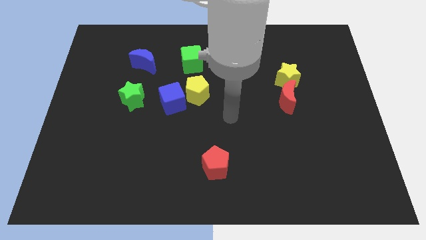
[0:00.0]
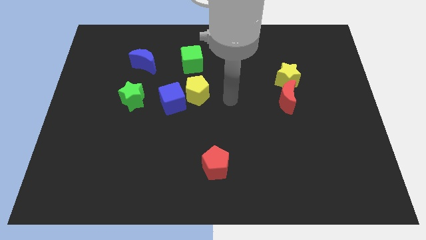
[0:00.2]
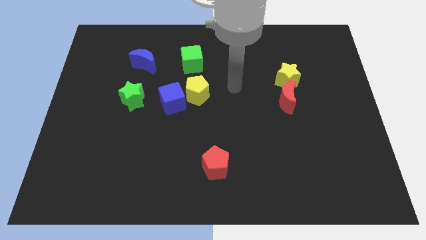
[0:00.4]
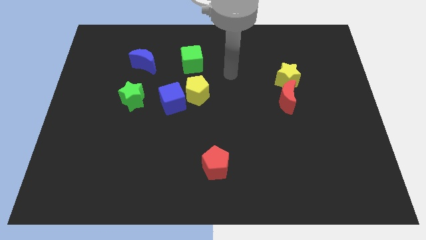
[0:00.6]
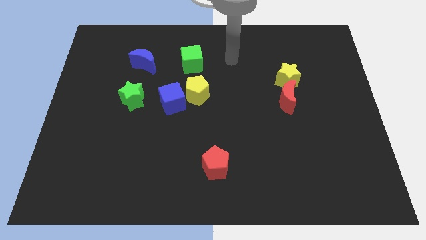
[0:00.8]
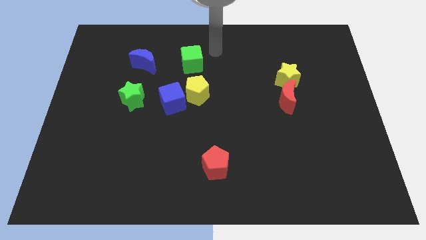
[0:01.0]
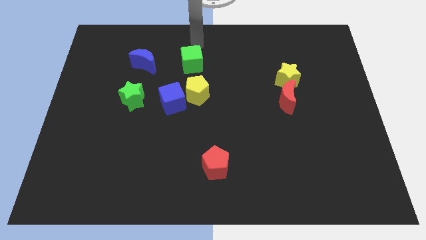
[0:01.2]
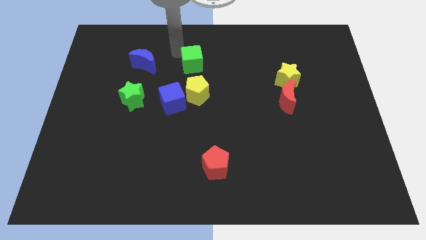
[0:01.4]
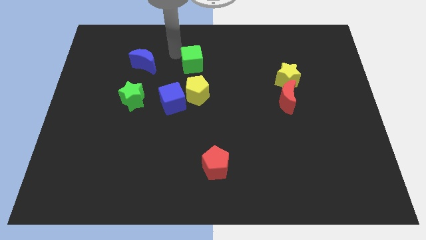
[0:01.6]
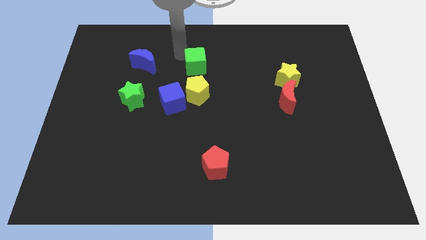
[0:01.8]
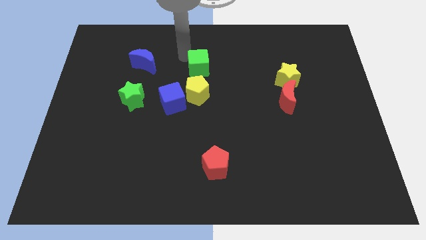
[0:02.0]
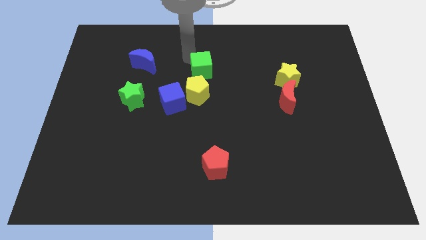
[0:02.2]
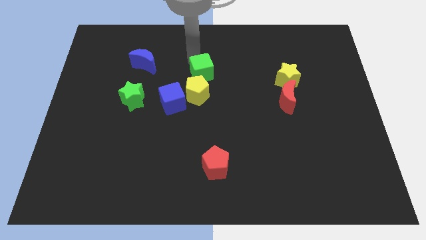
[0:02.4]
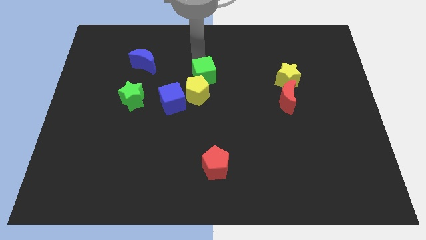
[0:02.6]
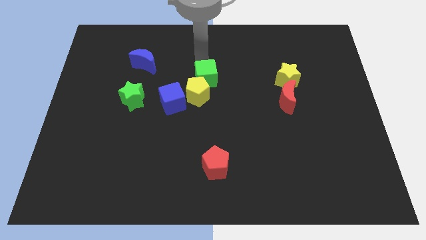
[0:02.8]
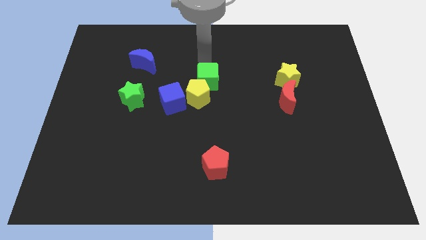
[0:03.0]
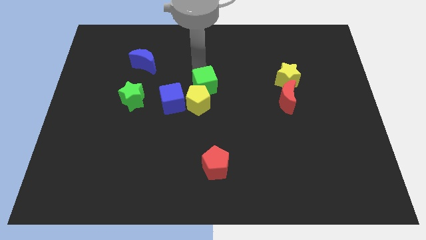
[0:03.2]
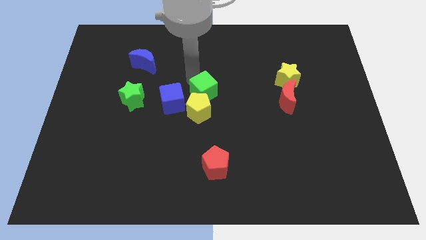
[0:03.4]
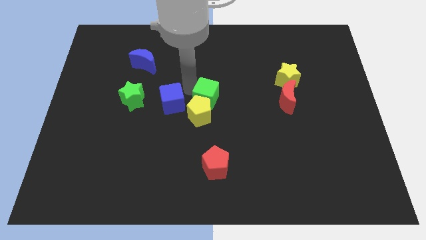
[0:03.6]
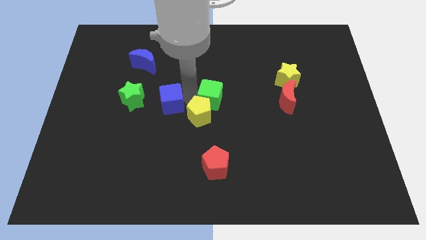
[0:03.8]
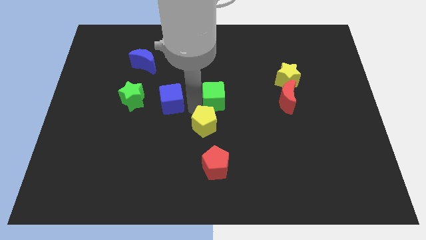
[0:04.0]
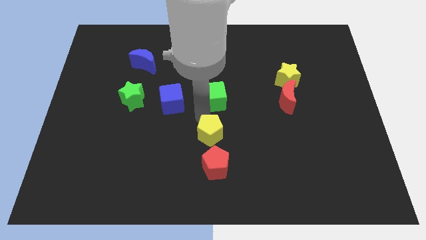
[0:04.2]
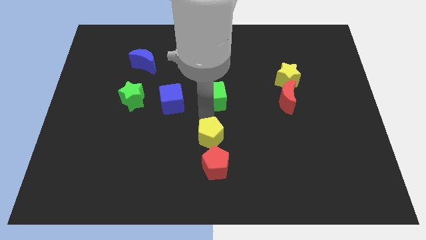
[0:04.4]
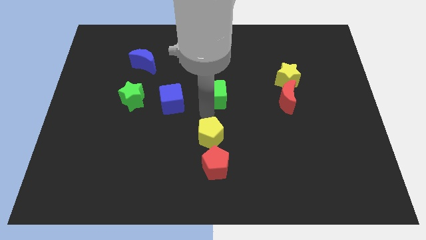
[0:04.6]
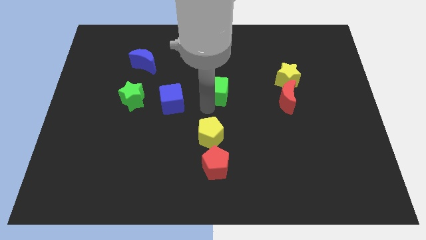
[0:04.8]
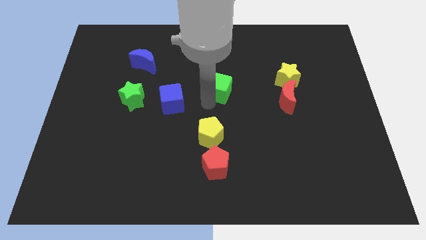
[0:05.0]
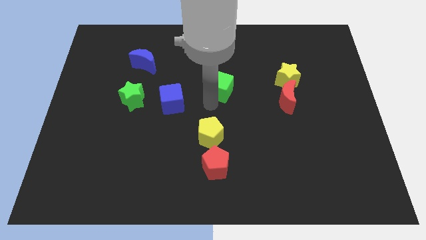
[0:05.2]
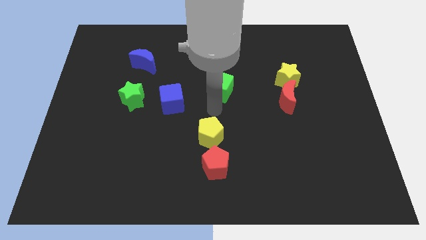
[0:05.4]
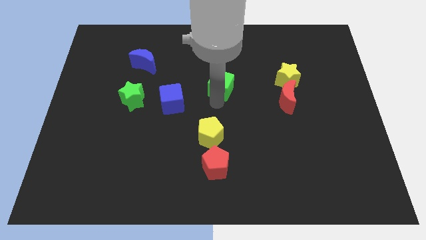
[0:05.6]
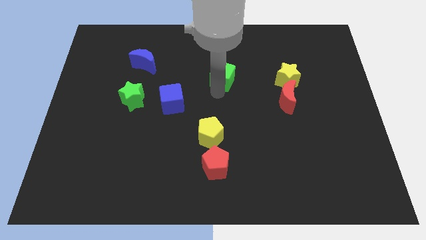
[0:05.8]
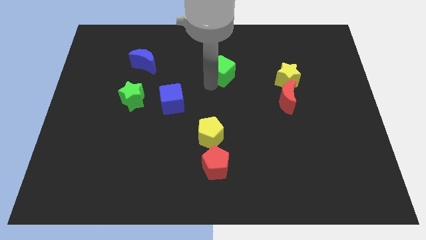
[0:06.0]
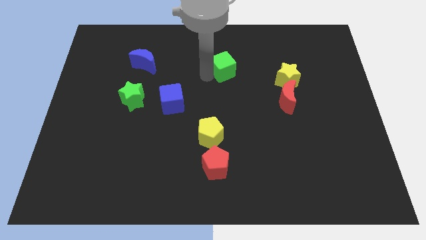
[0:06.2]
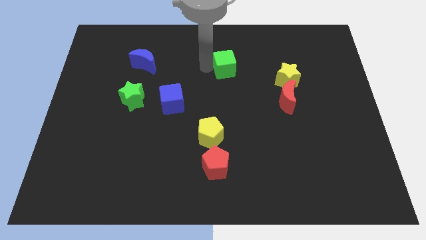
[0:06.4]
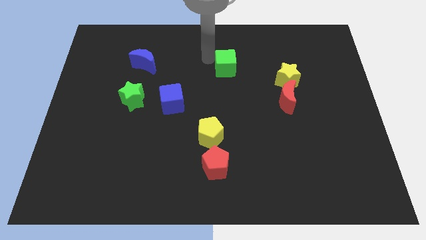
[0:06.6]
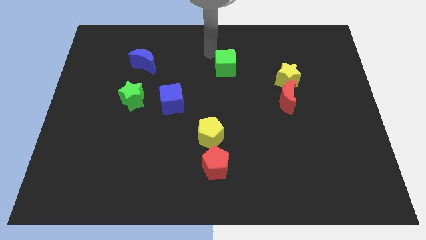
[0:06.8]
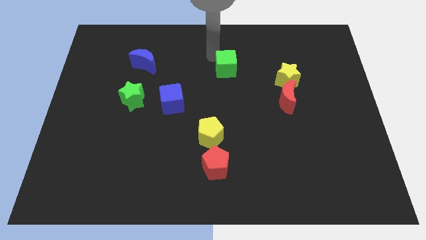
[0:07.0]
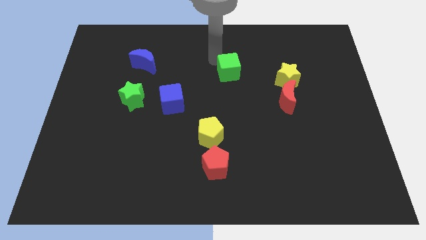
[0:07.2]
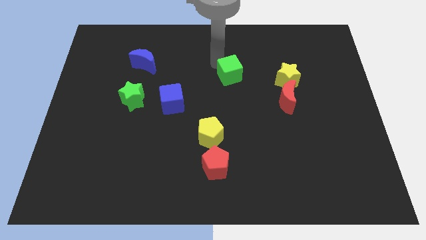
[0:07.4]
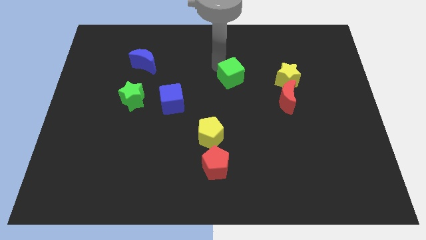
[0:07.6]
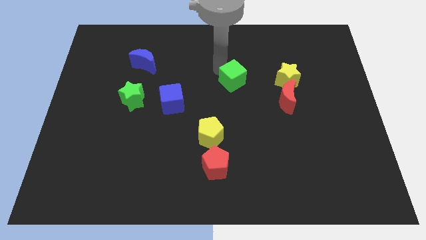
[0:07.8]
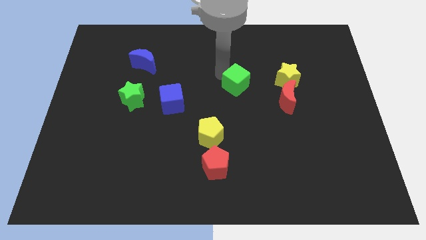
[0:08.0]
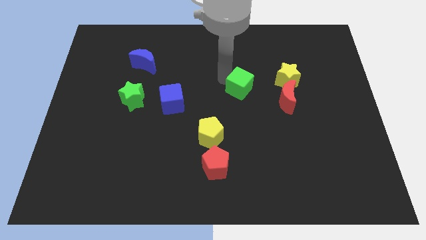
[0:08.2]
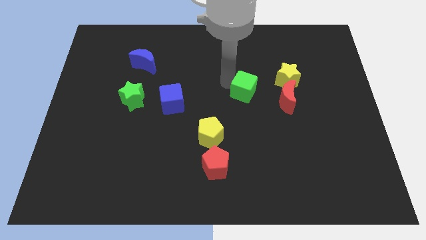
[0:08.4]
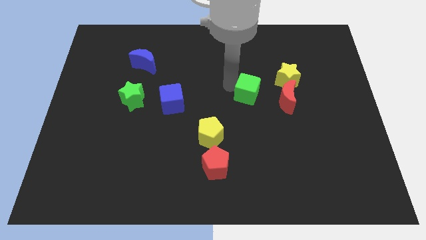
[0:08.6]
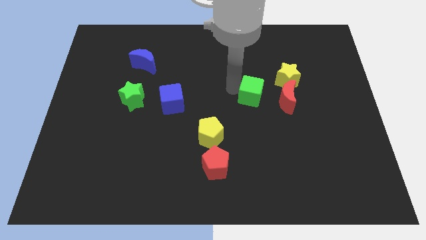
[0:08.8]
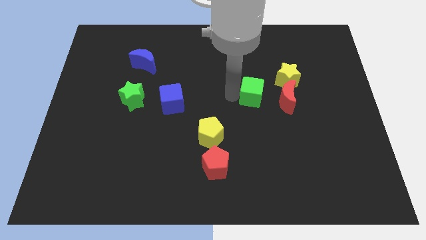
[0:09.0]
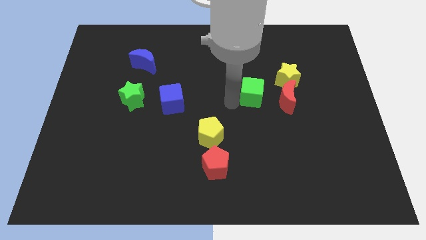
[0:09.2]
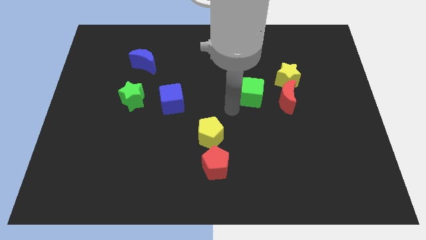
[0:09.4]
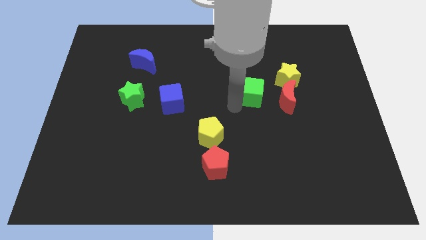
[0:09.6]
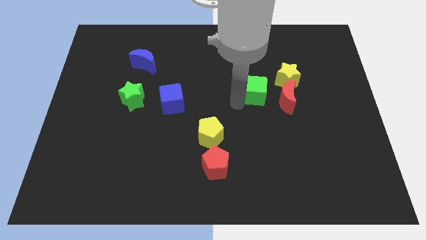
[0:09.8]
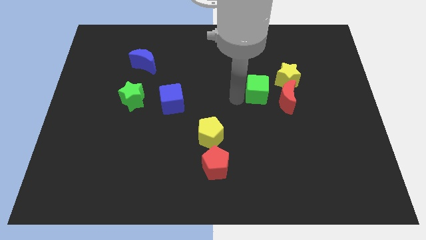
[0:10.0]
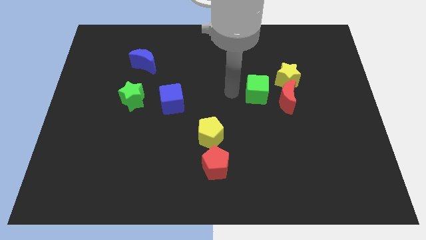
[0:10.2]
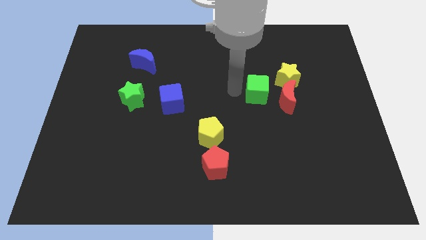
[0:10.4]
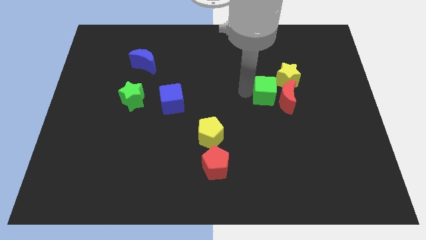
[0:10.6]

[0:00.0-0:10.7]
slide the green cube next to the red moon

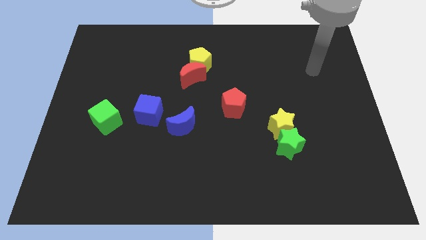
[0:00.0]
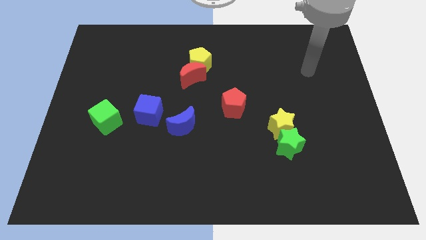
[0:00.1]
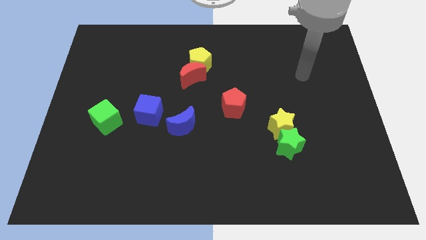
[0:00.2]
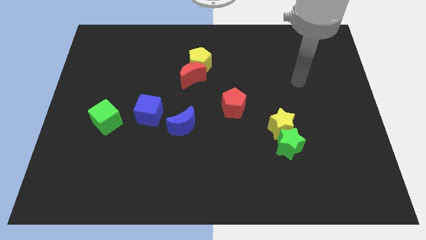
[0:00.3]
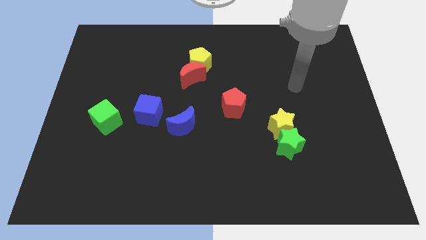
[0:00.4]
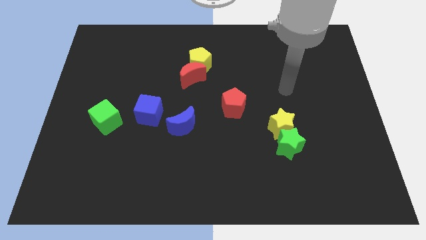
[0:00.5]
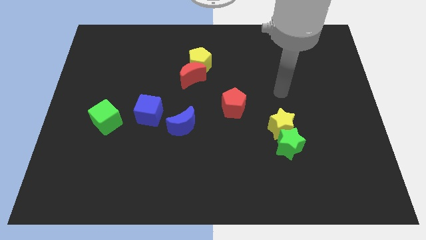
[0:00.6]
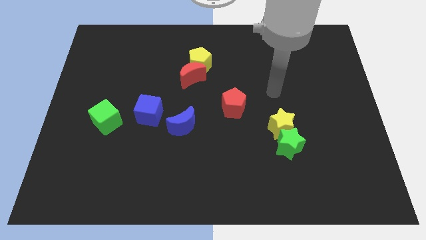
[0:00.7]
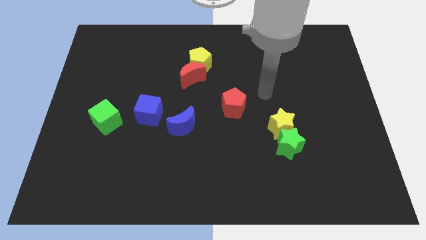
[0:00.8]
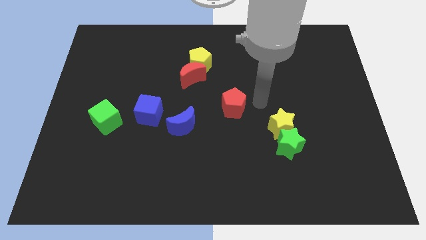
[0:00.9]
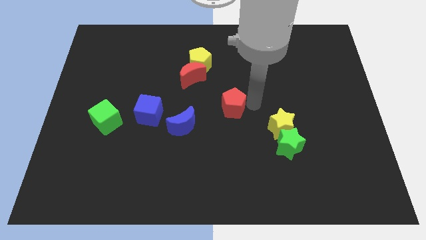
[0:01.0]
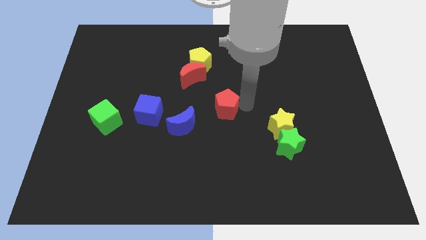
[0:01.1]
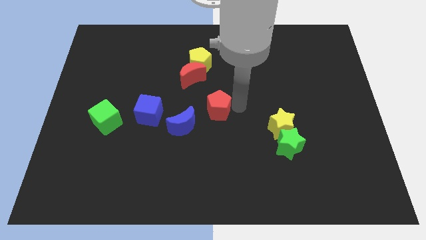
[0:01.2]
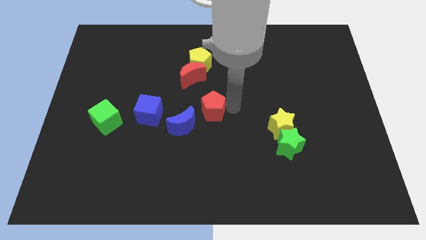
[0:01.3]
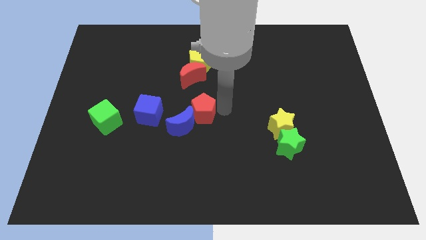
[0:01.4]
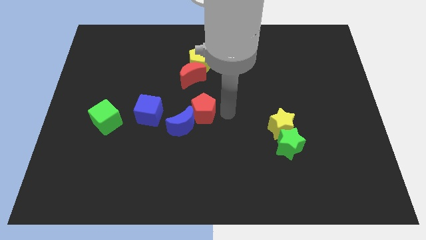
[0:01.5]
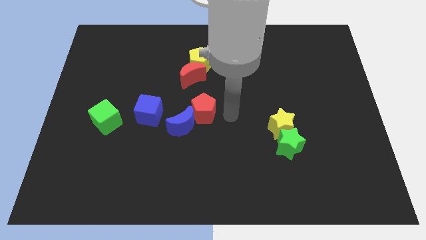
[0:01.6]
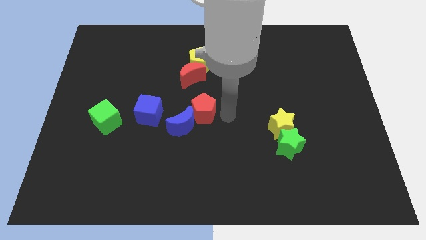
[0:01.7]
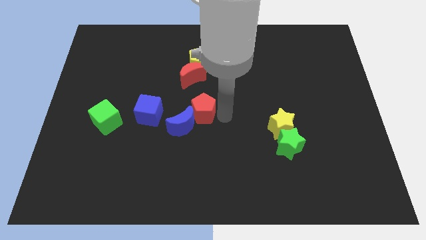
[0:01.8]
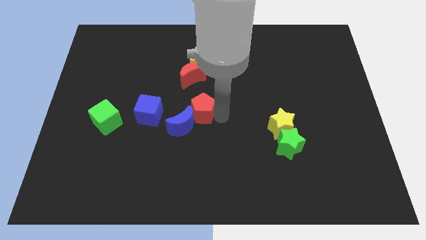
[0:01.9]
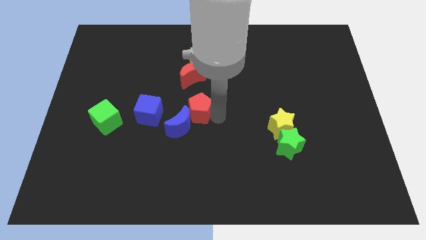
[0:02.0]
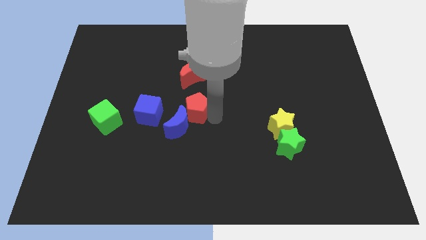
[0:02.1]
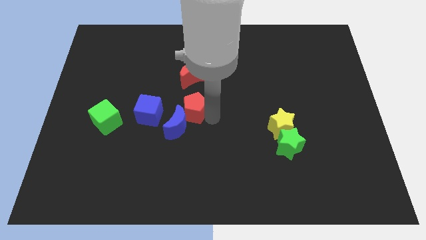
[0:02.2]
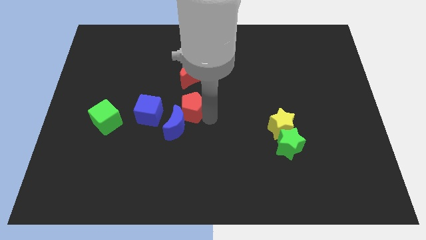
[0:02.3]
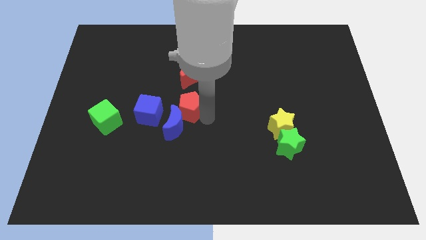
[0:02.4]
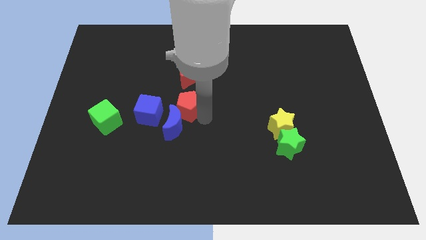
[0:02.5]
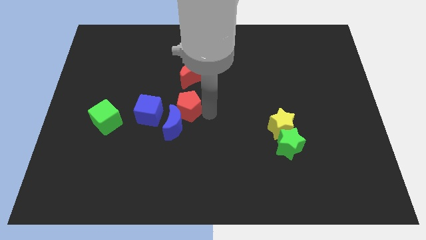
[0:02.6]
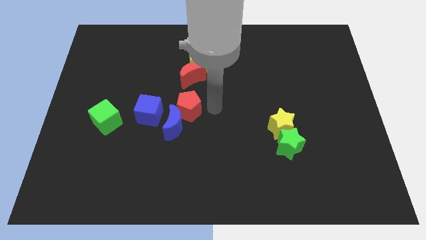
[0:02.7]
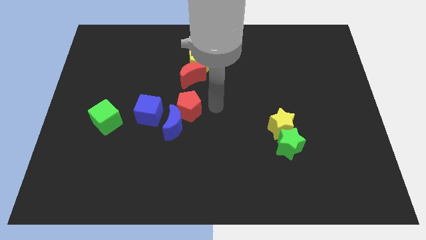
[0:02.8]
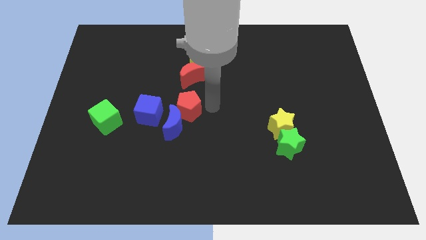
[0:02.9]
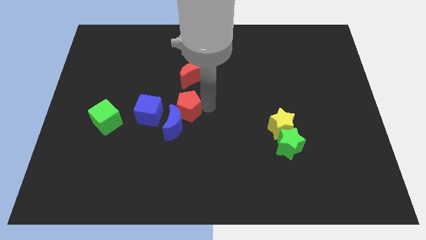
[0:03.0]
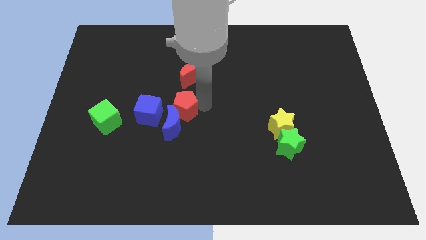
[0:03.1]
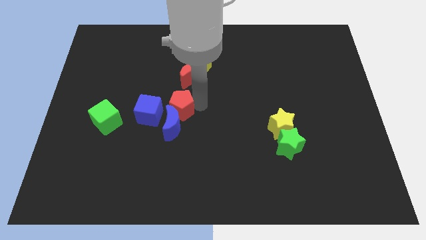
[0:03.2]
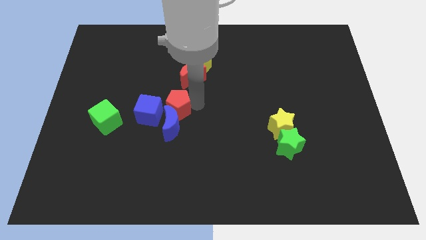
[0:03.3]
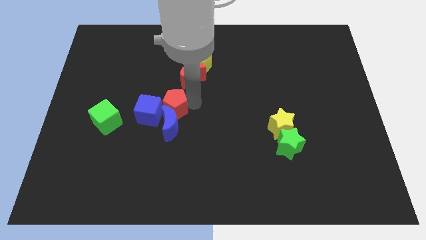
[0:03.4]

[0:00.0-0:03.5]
slide the red pentagon to the blue cube
